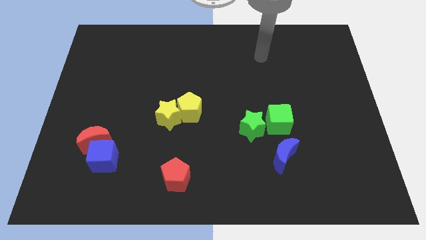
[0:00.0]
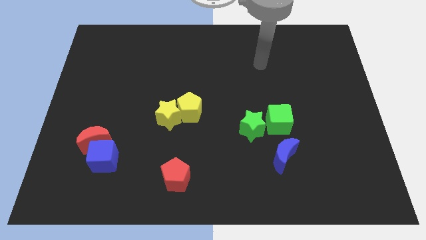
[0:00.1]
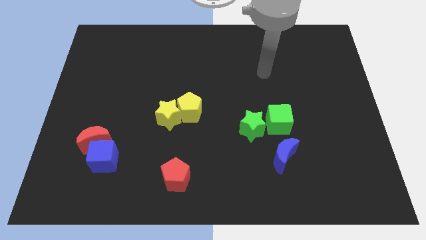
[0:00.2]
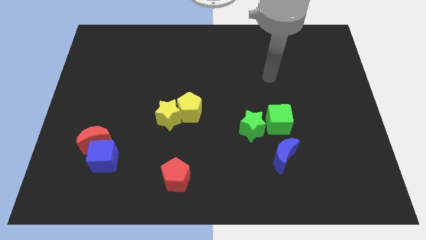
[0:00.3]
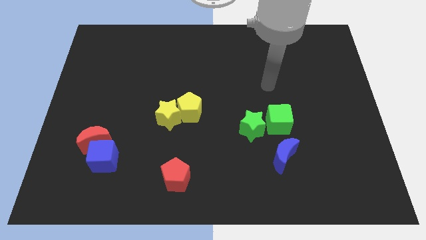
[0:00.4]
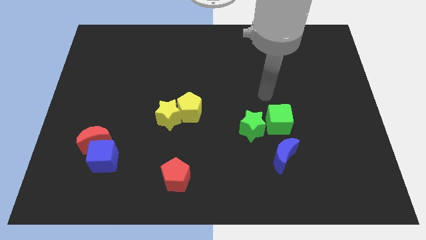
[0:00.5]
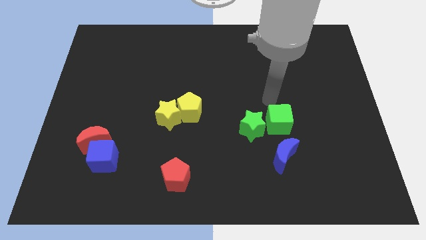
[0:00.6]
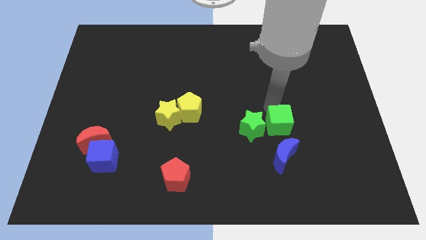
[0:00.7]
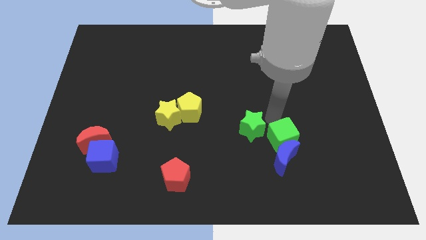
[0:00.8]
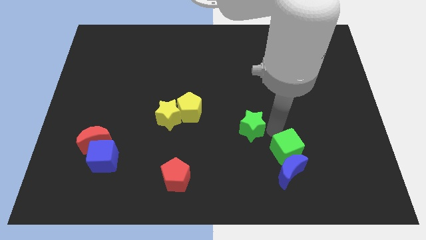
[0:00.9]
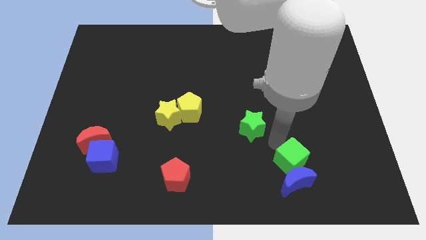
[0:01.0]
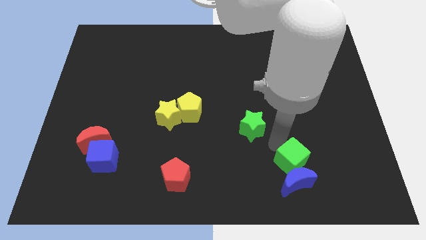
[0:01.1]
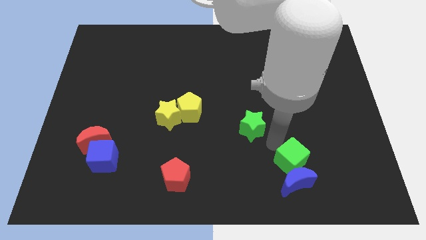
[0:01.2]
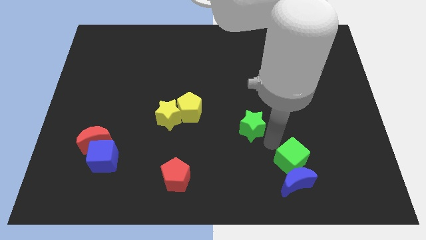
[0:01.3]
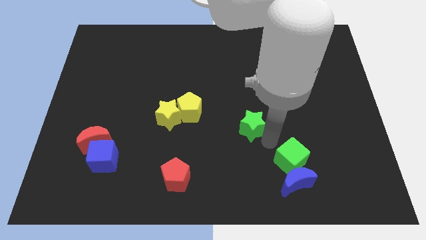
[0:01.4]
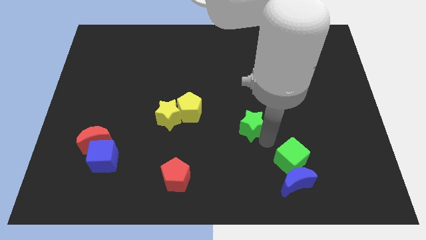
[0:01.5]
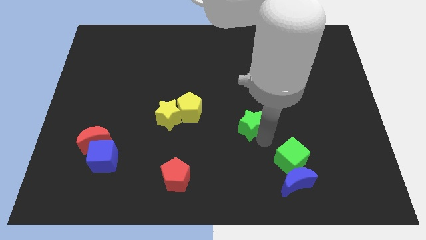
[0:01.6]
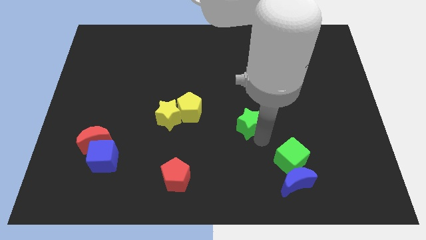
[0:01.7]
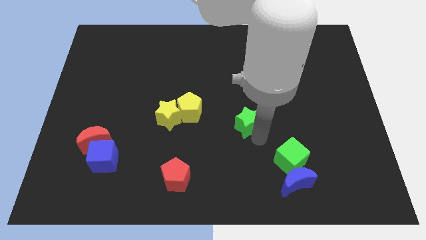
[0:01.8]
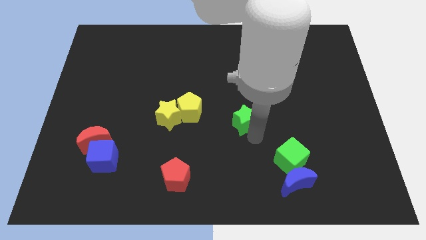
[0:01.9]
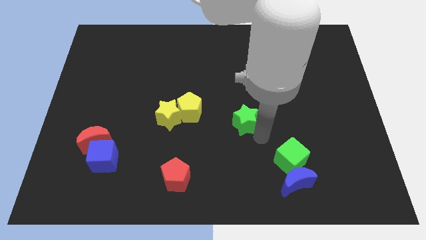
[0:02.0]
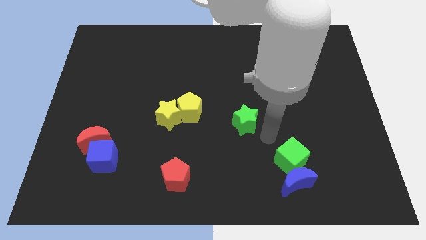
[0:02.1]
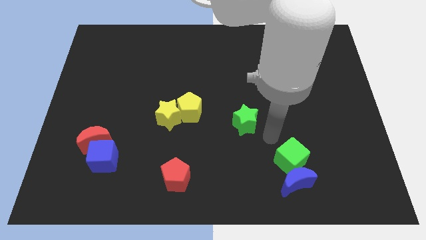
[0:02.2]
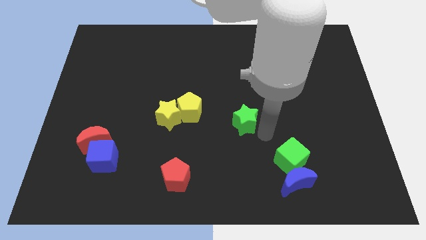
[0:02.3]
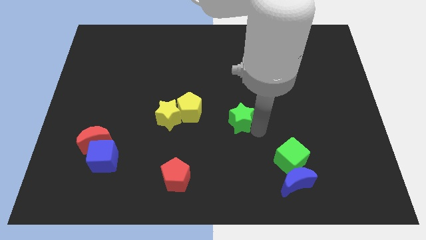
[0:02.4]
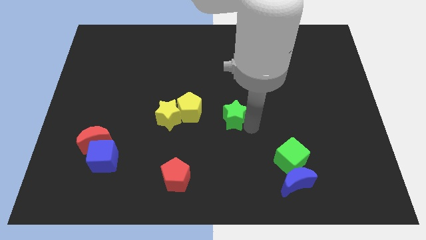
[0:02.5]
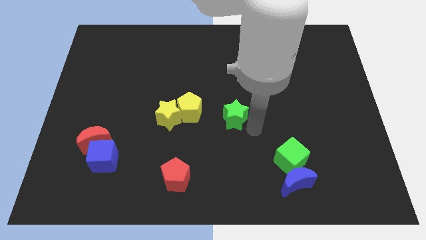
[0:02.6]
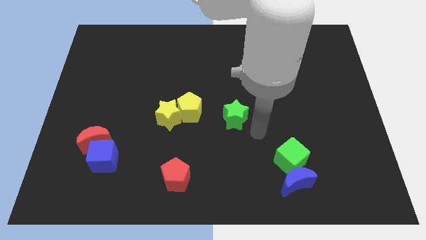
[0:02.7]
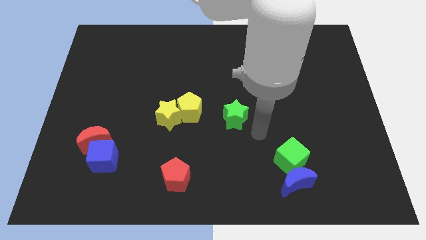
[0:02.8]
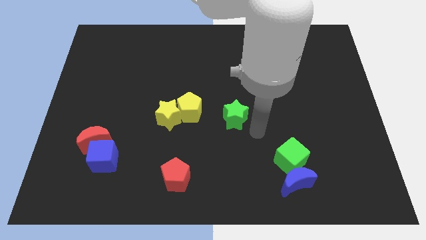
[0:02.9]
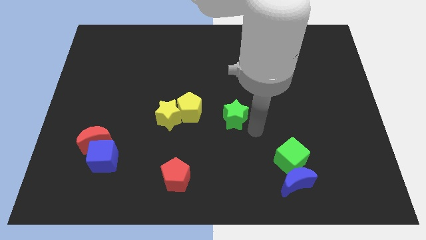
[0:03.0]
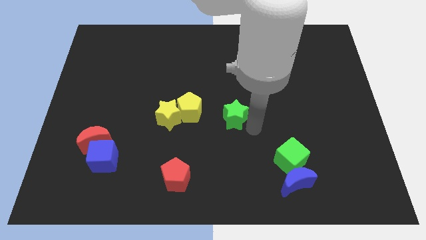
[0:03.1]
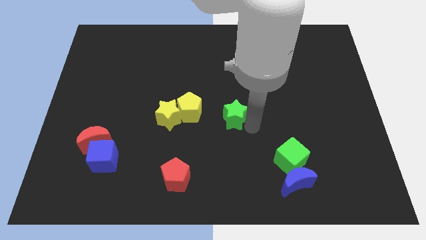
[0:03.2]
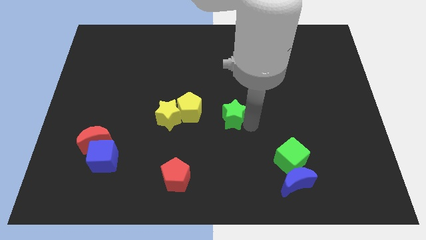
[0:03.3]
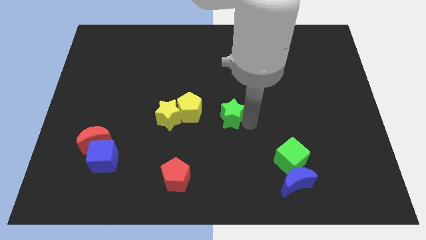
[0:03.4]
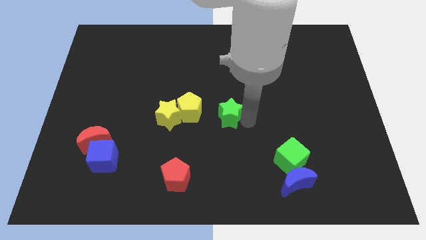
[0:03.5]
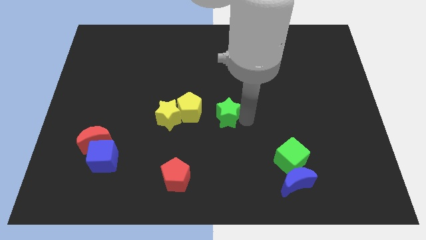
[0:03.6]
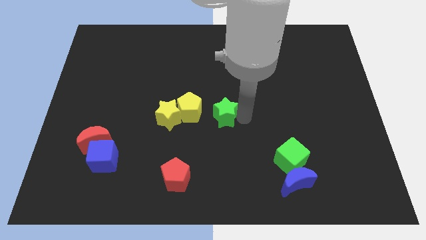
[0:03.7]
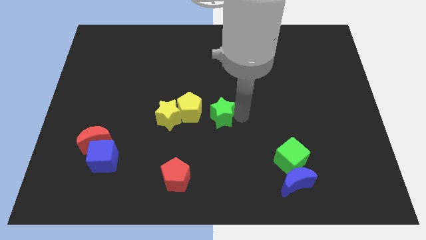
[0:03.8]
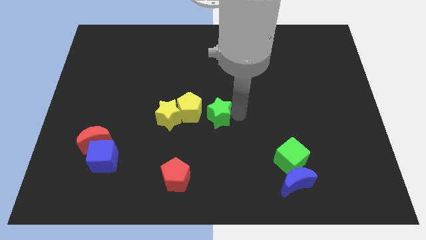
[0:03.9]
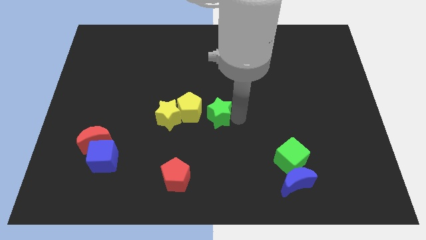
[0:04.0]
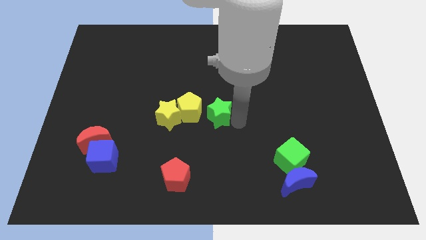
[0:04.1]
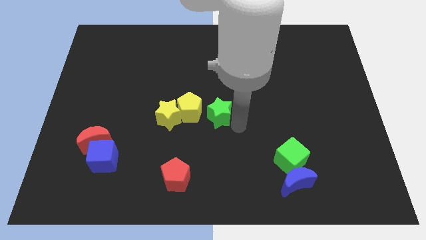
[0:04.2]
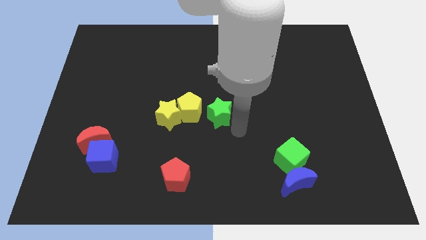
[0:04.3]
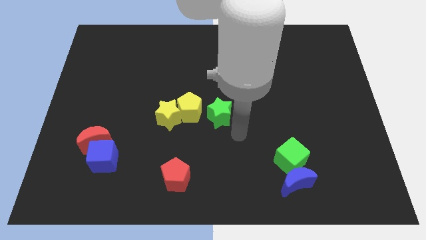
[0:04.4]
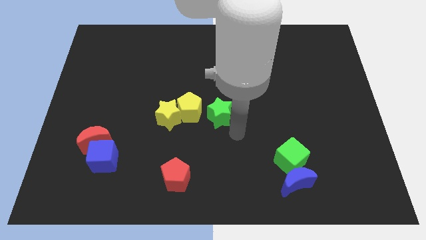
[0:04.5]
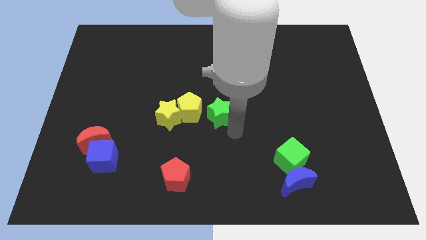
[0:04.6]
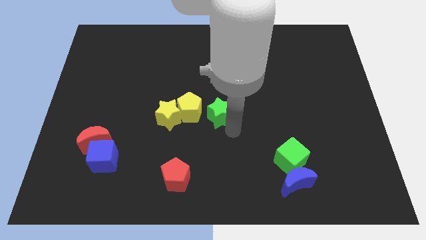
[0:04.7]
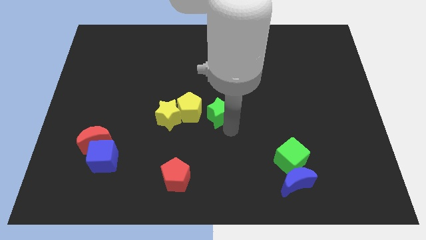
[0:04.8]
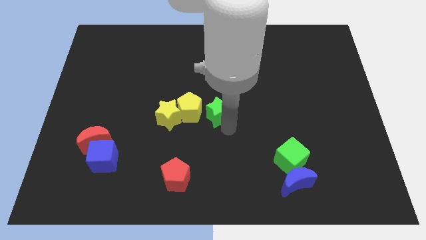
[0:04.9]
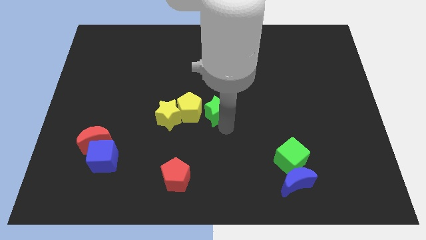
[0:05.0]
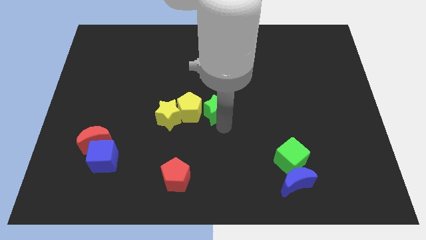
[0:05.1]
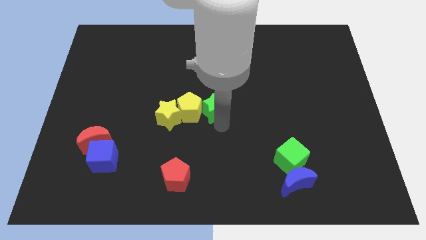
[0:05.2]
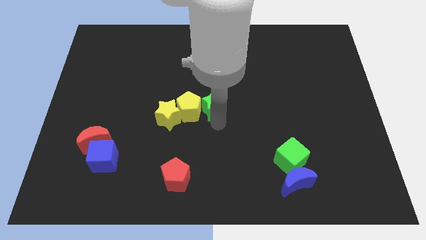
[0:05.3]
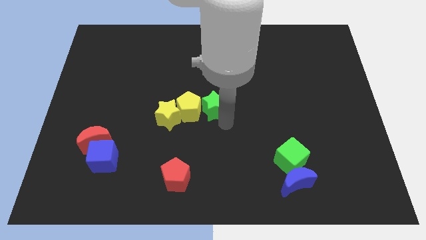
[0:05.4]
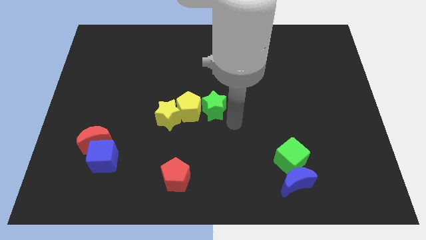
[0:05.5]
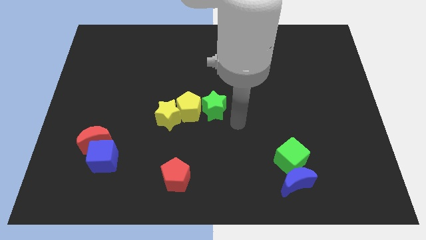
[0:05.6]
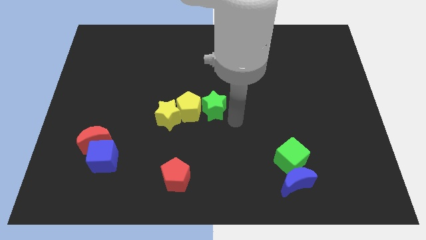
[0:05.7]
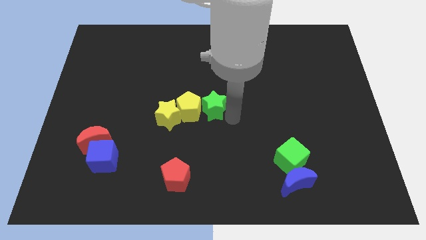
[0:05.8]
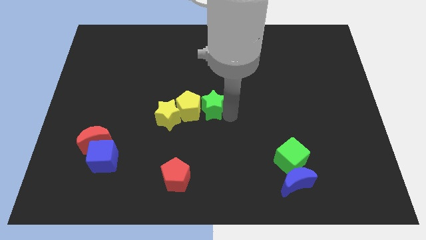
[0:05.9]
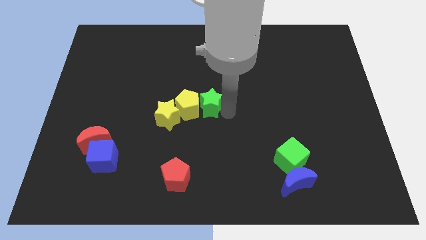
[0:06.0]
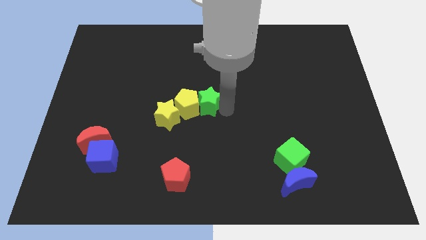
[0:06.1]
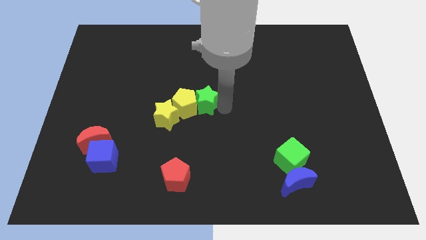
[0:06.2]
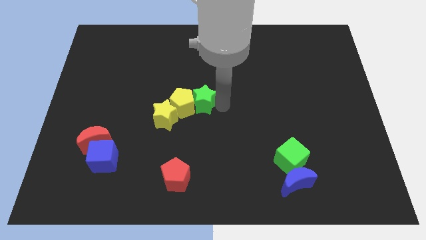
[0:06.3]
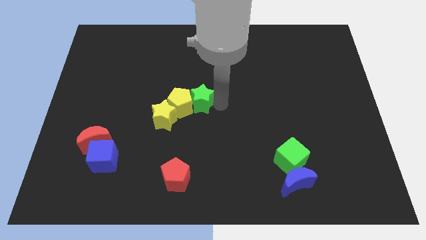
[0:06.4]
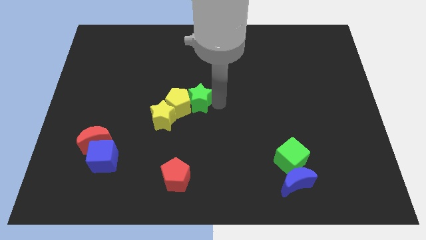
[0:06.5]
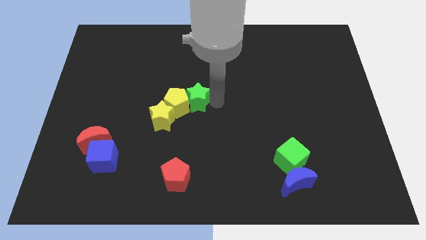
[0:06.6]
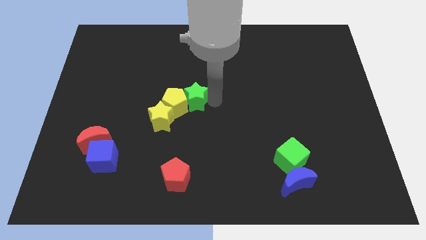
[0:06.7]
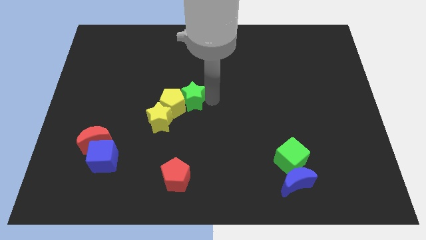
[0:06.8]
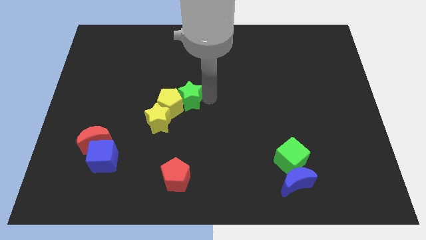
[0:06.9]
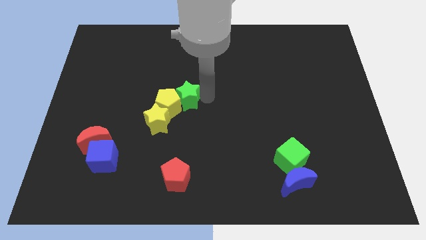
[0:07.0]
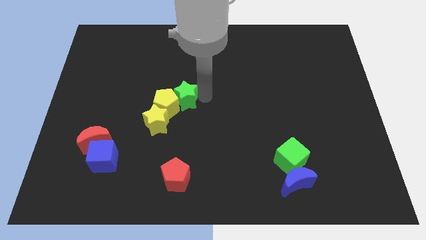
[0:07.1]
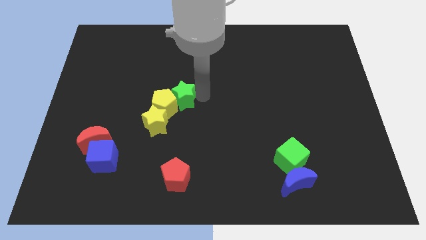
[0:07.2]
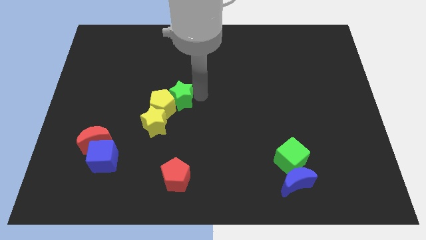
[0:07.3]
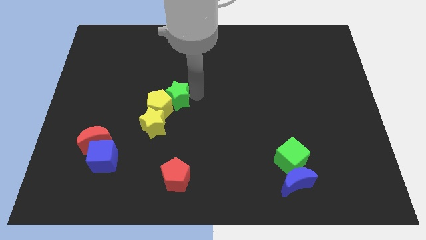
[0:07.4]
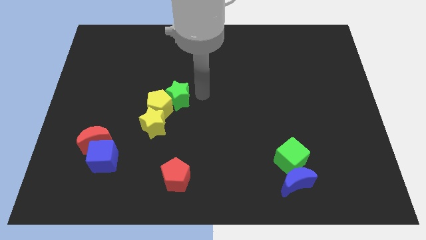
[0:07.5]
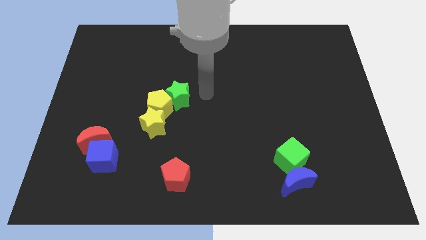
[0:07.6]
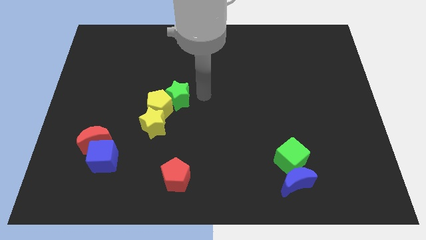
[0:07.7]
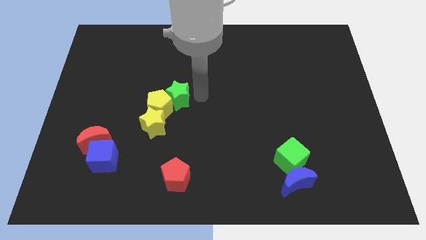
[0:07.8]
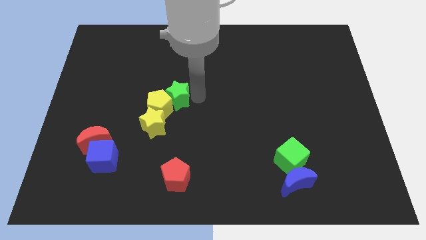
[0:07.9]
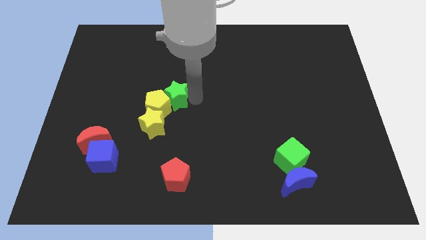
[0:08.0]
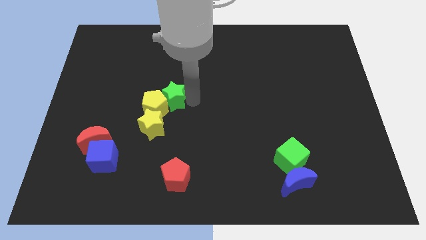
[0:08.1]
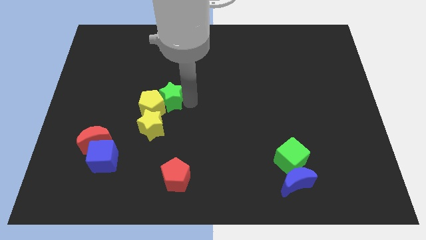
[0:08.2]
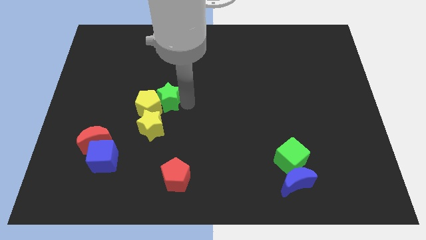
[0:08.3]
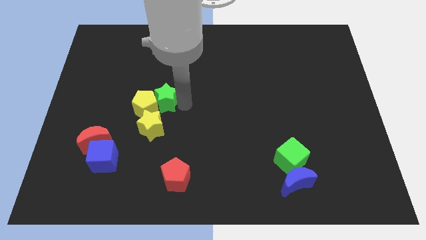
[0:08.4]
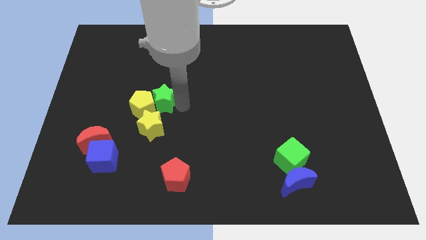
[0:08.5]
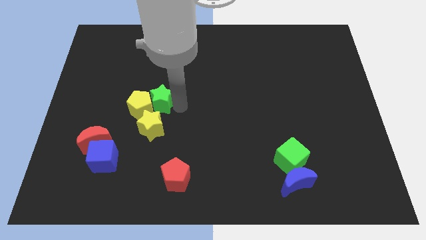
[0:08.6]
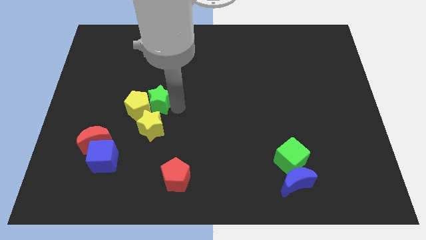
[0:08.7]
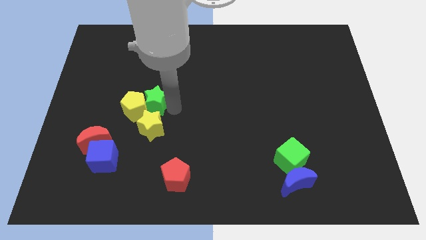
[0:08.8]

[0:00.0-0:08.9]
push the green star to the left
